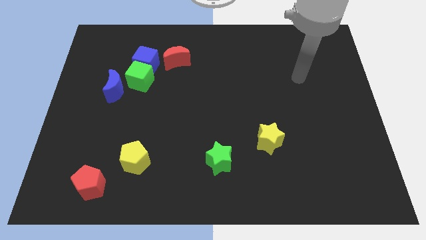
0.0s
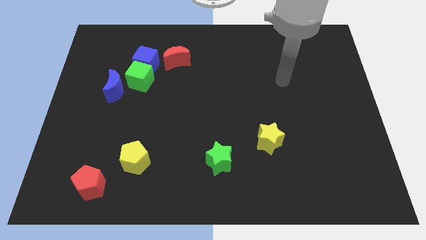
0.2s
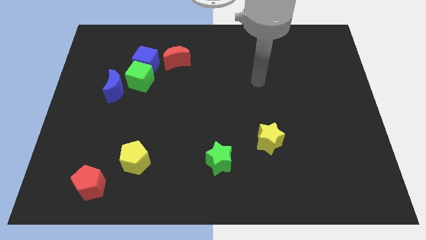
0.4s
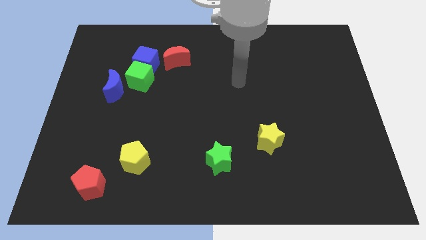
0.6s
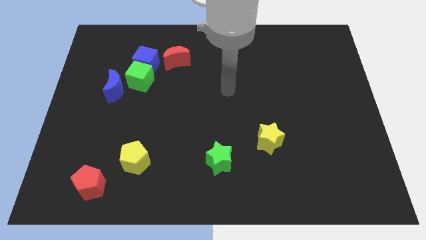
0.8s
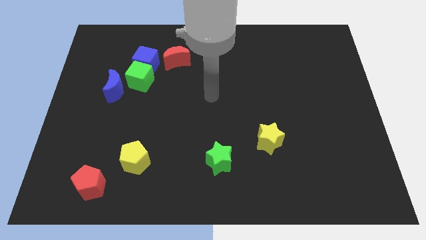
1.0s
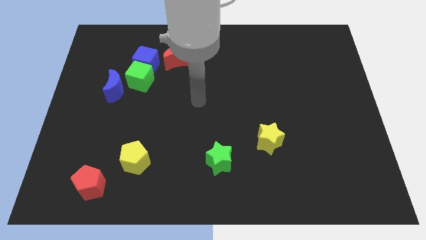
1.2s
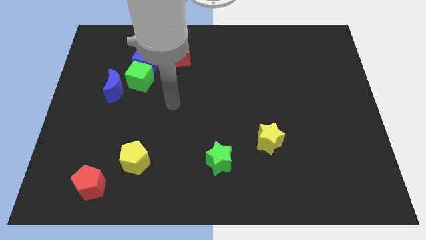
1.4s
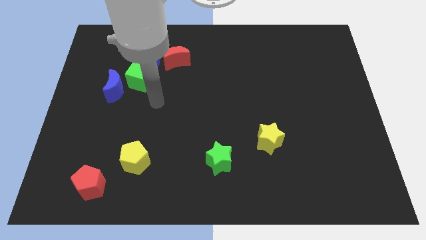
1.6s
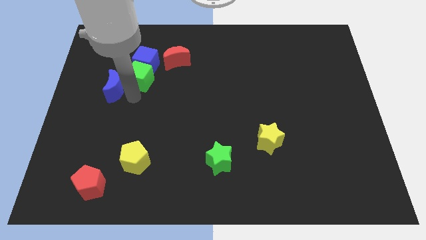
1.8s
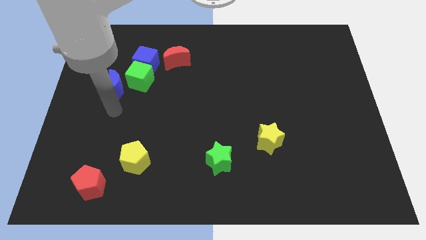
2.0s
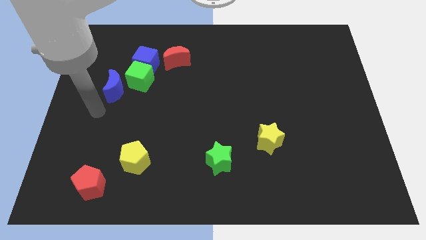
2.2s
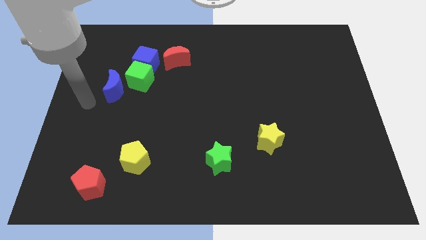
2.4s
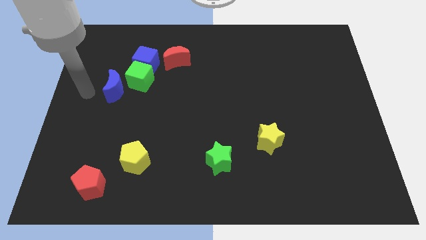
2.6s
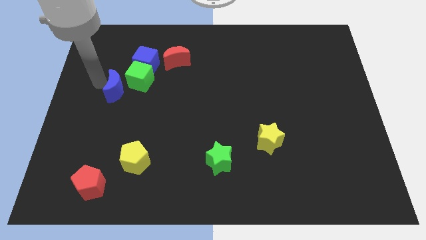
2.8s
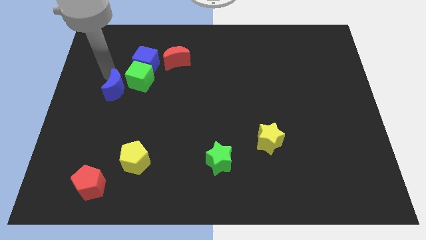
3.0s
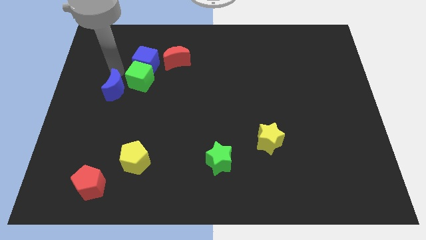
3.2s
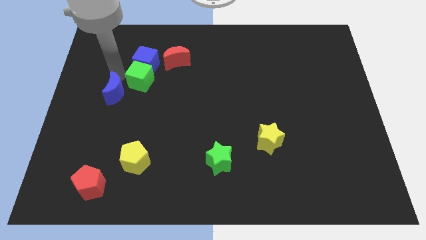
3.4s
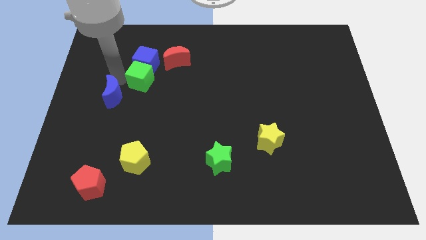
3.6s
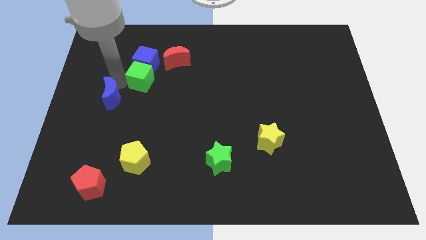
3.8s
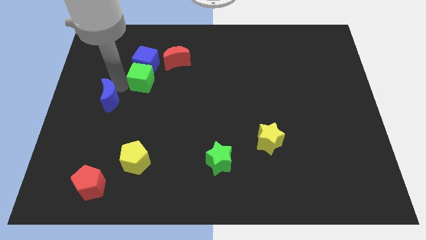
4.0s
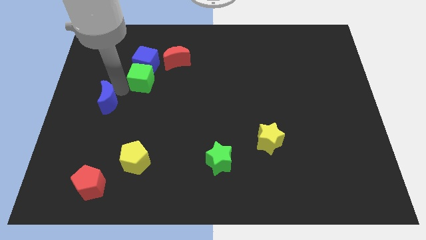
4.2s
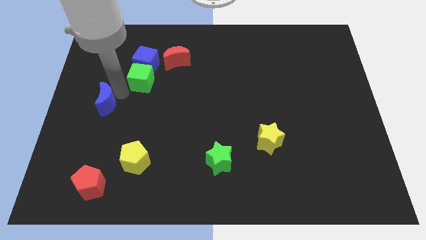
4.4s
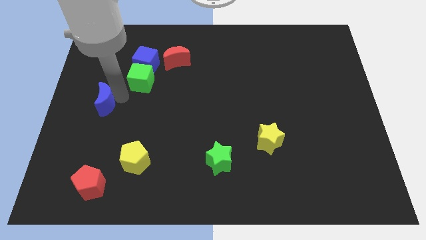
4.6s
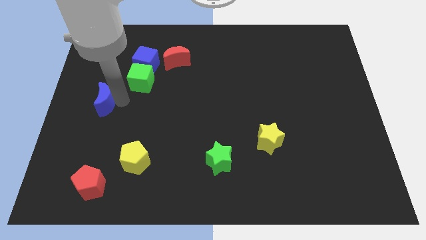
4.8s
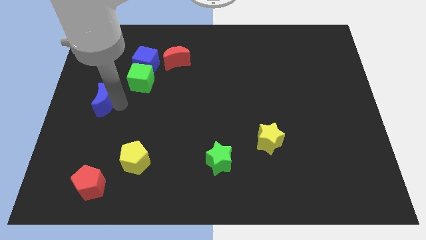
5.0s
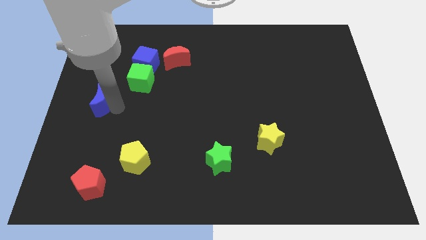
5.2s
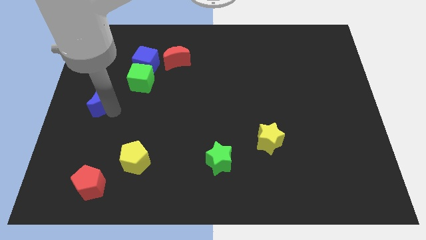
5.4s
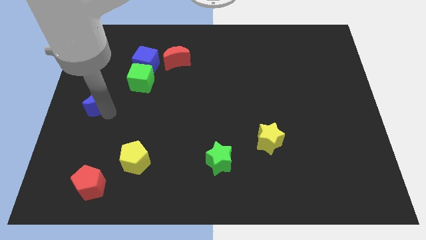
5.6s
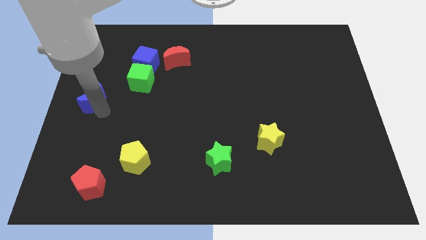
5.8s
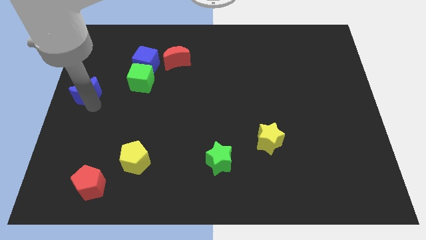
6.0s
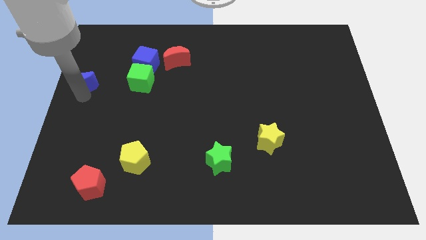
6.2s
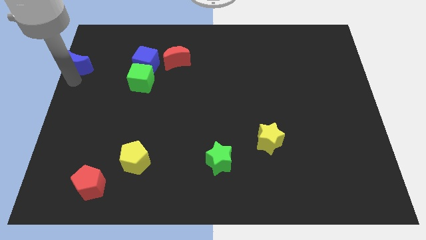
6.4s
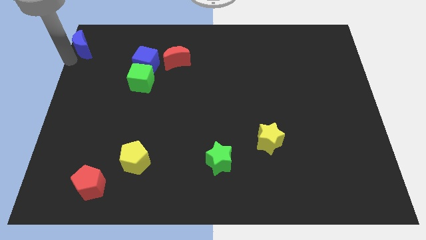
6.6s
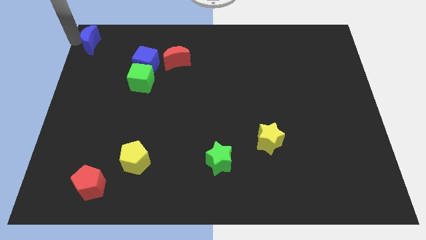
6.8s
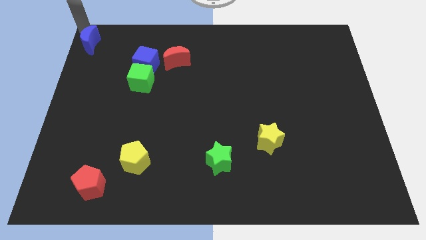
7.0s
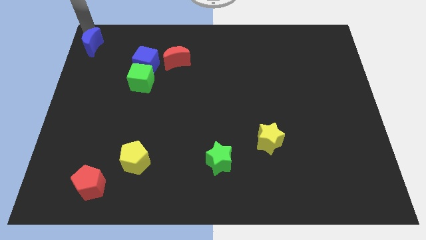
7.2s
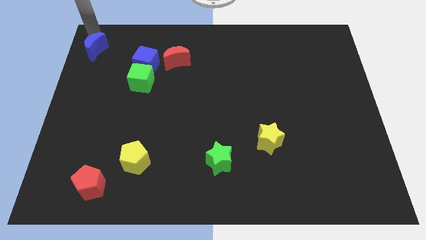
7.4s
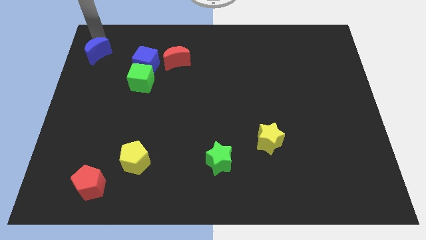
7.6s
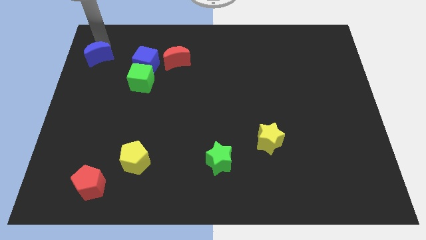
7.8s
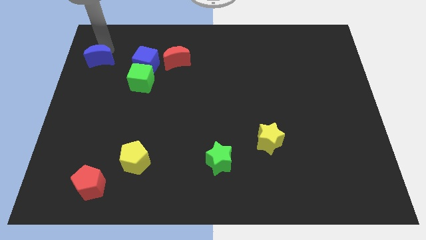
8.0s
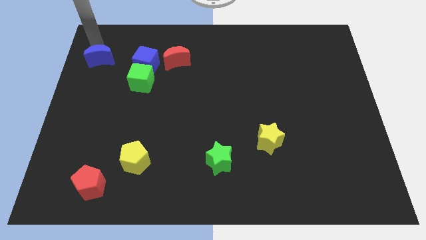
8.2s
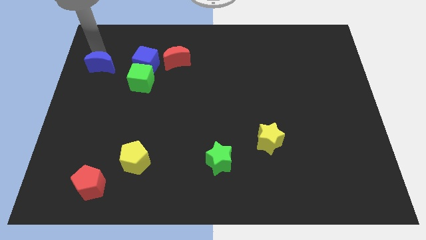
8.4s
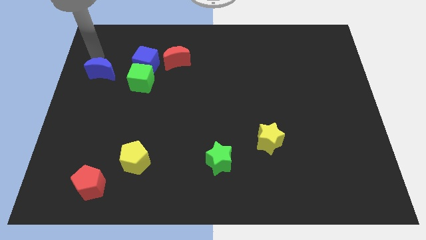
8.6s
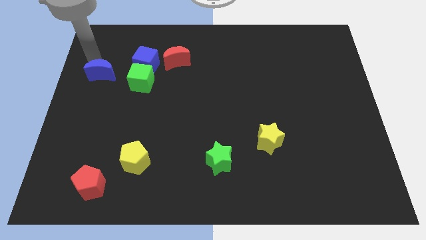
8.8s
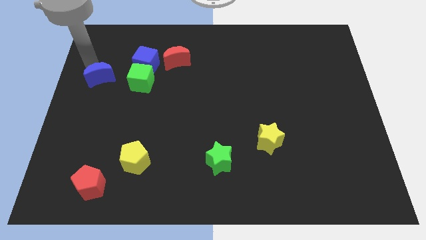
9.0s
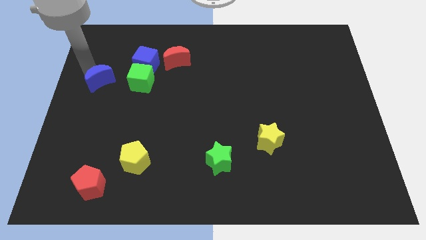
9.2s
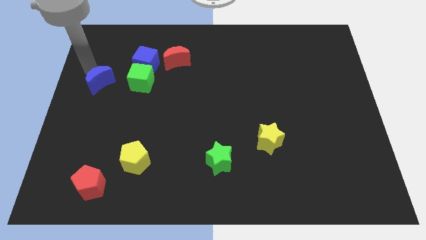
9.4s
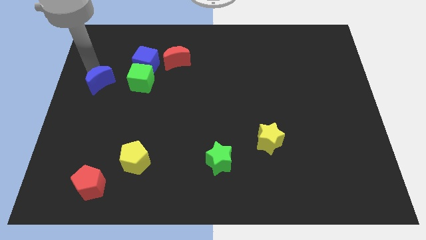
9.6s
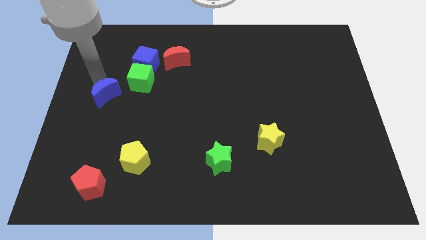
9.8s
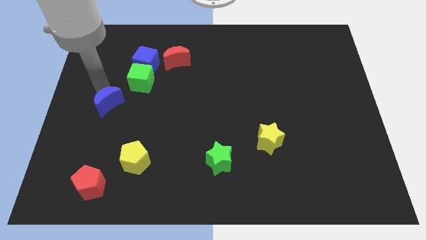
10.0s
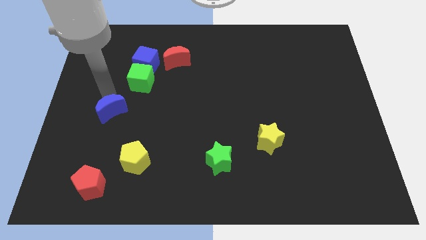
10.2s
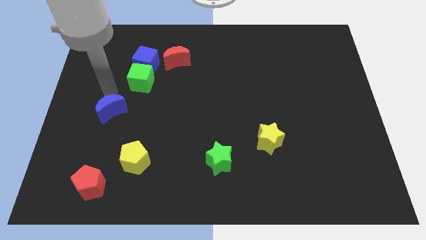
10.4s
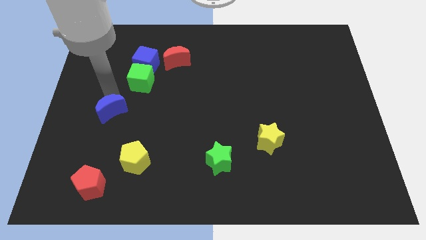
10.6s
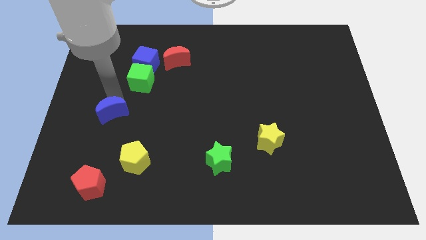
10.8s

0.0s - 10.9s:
move the blue moon down slightly

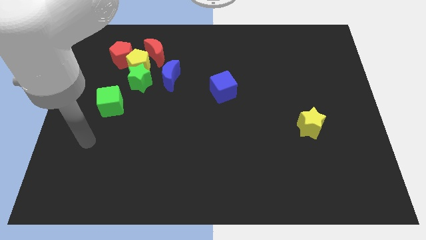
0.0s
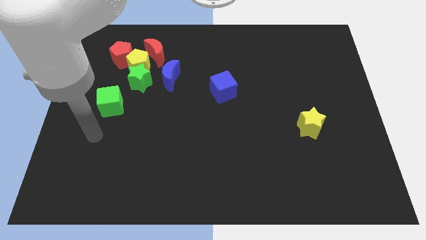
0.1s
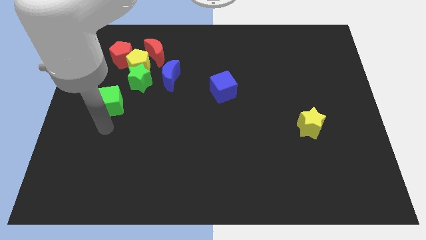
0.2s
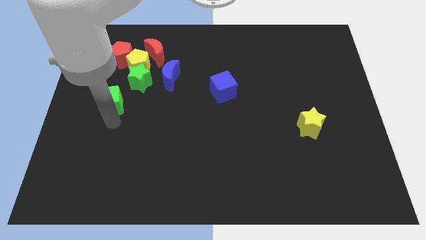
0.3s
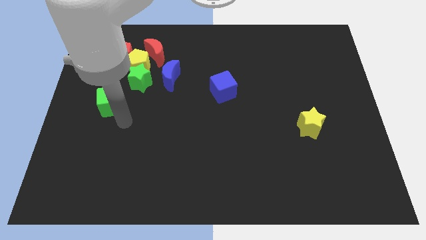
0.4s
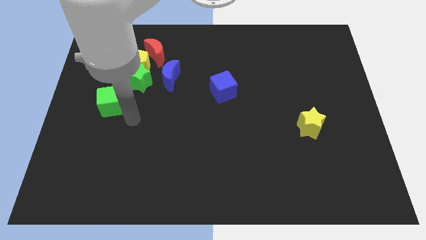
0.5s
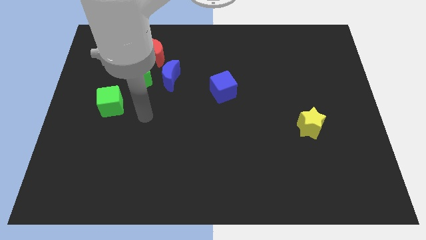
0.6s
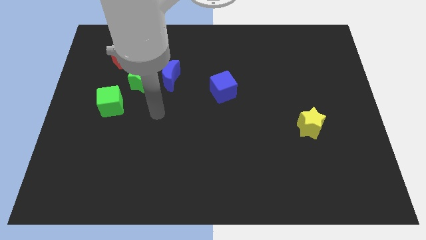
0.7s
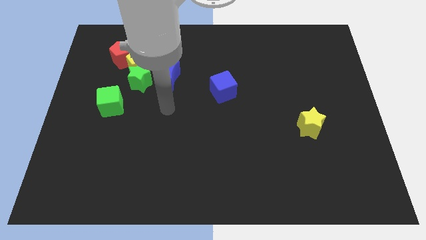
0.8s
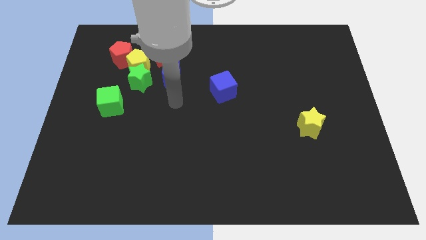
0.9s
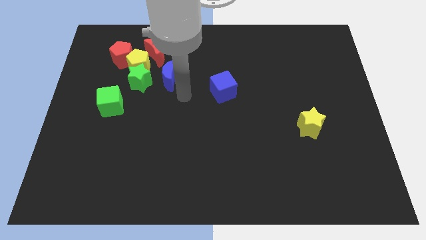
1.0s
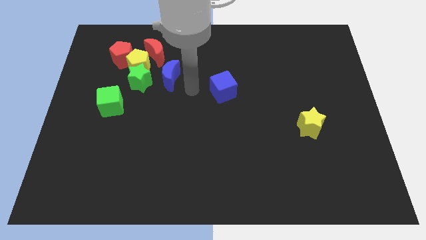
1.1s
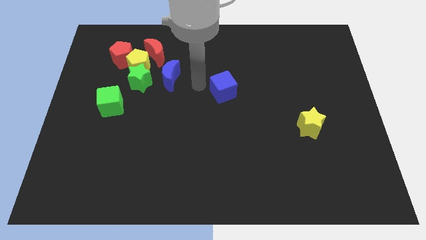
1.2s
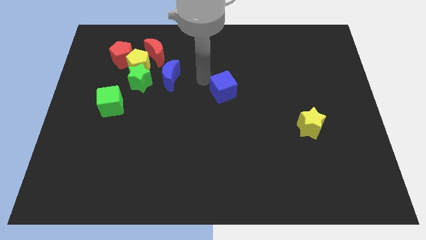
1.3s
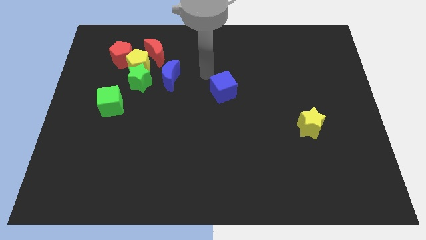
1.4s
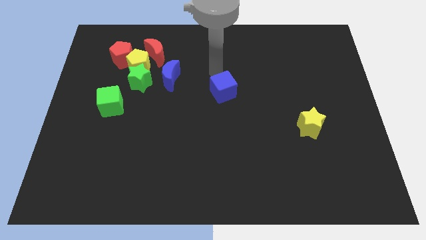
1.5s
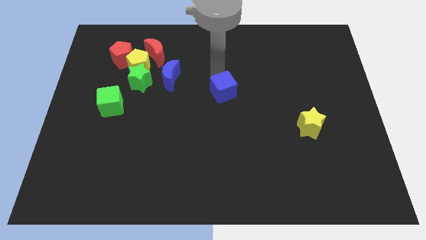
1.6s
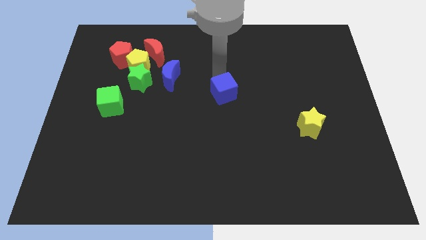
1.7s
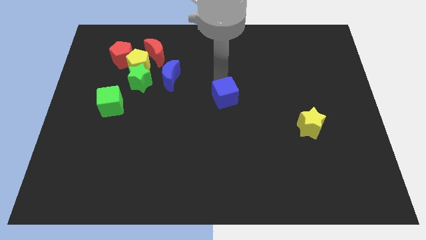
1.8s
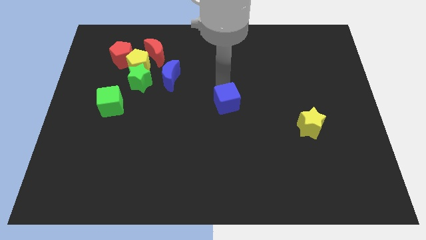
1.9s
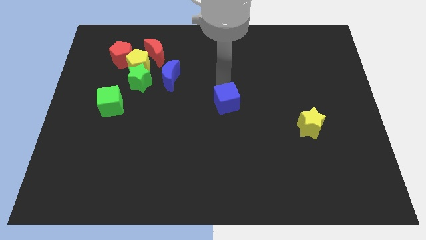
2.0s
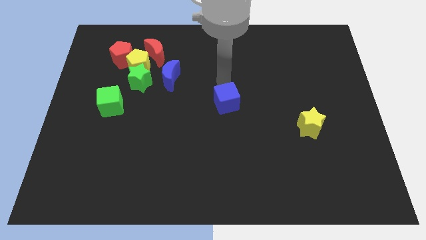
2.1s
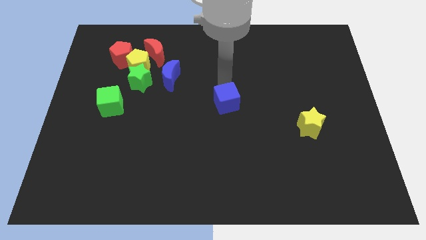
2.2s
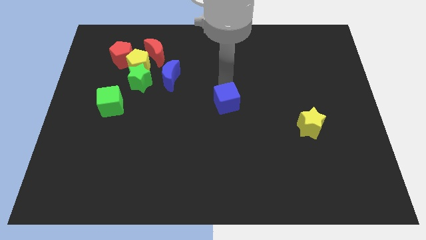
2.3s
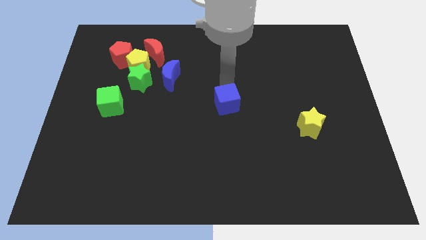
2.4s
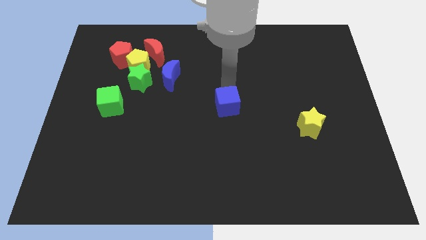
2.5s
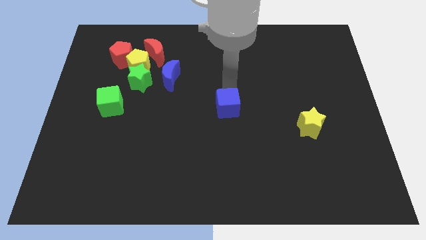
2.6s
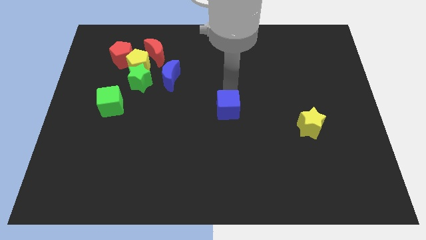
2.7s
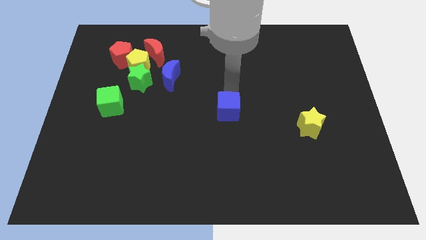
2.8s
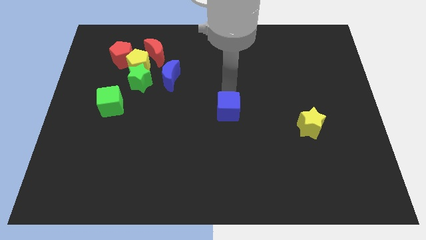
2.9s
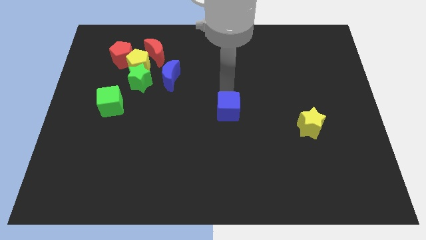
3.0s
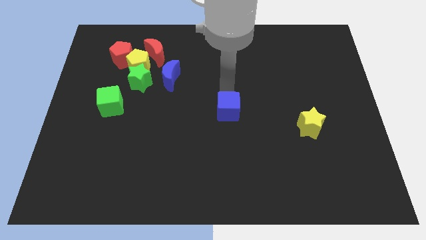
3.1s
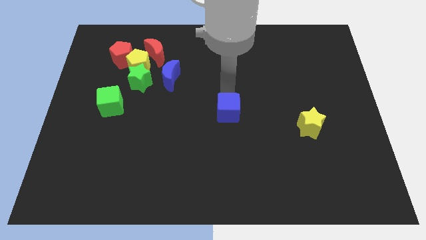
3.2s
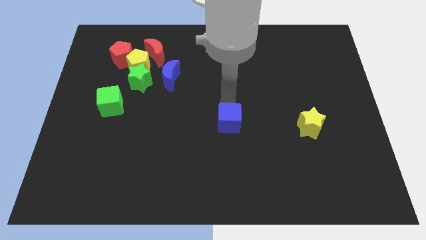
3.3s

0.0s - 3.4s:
slide the blue cube somewhat down
